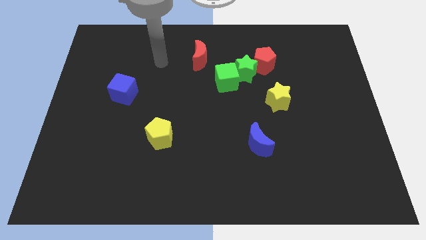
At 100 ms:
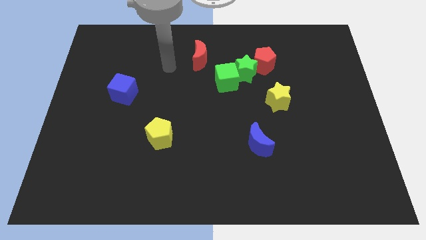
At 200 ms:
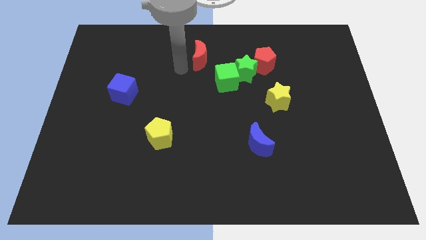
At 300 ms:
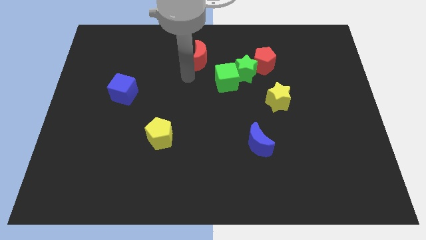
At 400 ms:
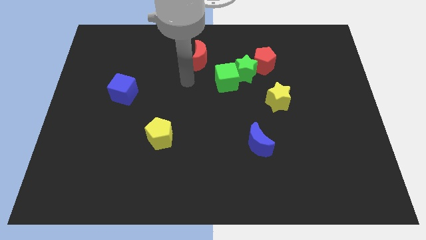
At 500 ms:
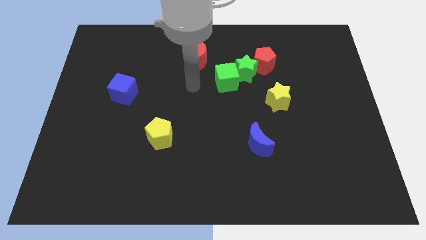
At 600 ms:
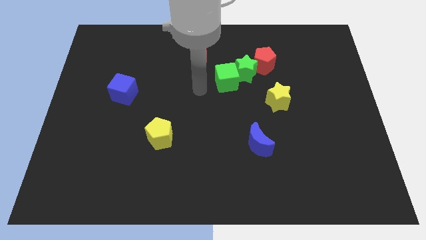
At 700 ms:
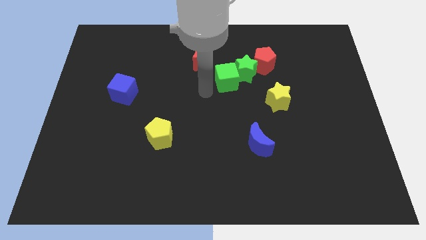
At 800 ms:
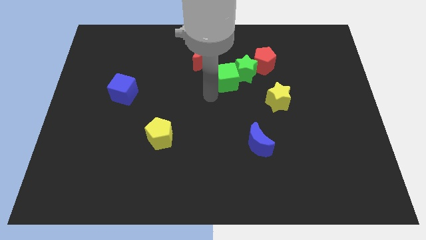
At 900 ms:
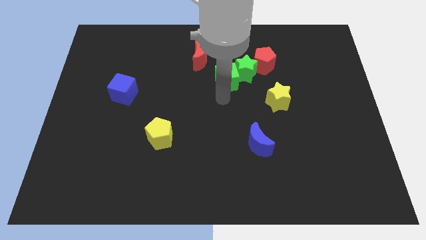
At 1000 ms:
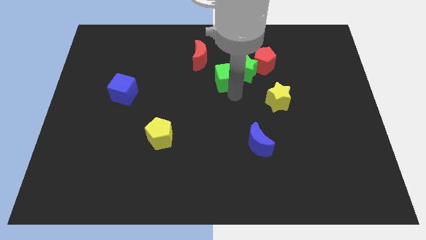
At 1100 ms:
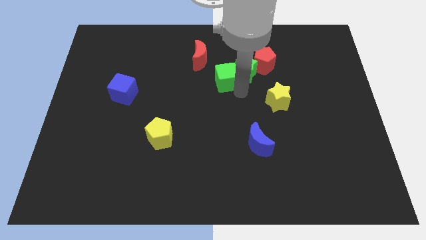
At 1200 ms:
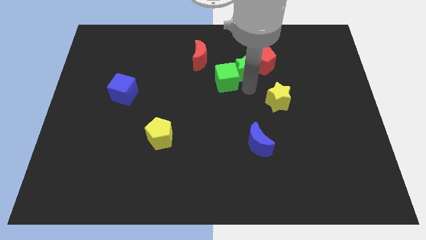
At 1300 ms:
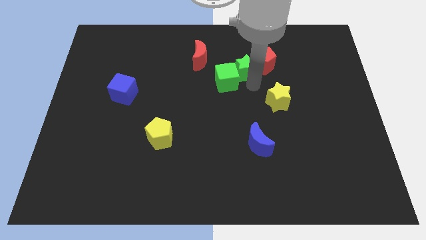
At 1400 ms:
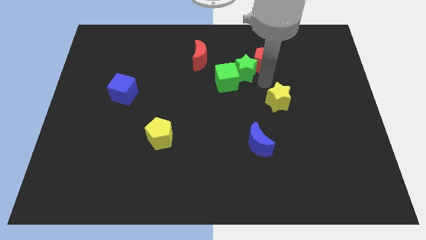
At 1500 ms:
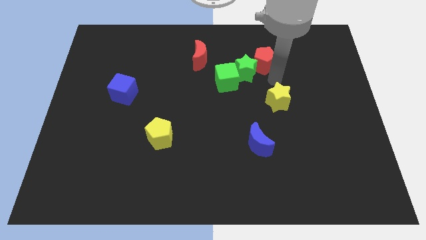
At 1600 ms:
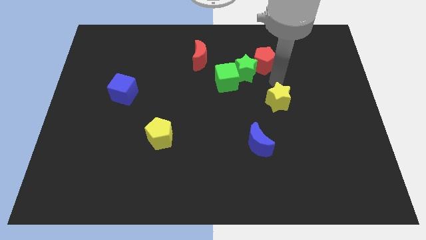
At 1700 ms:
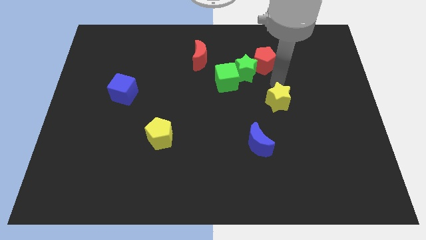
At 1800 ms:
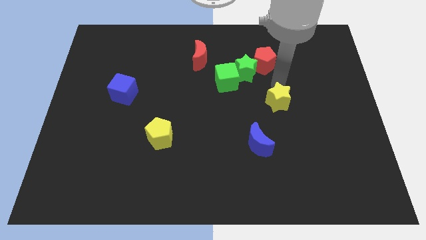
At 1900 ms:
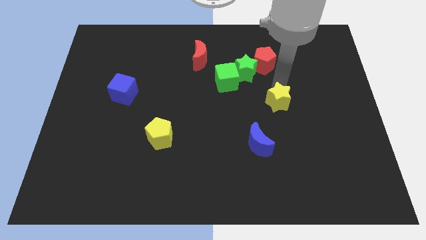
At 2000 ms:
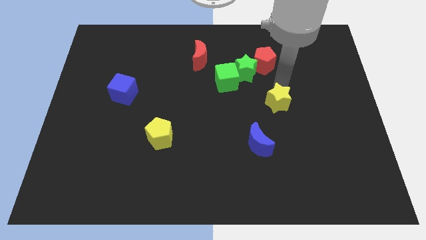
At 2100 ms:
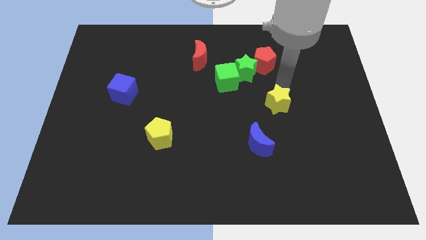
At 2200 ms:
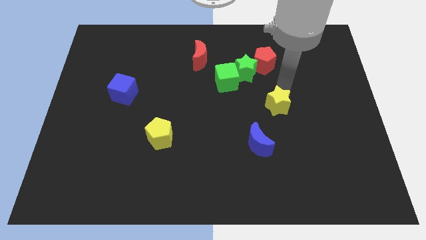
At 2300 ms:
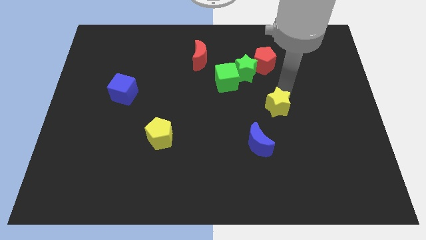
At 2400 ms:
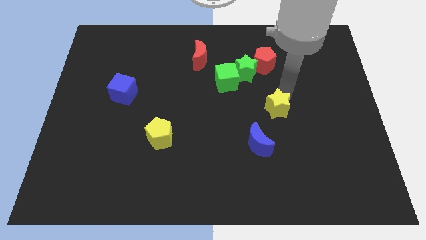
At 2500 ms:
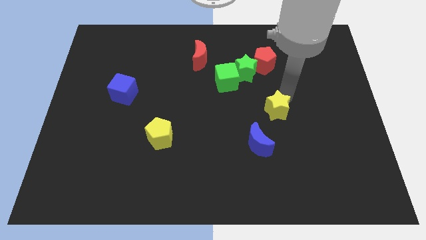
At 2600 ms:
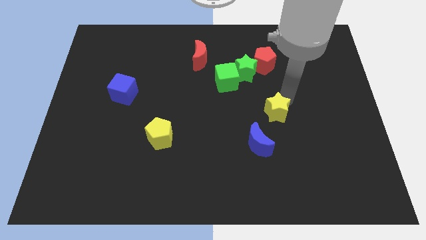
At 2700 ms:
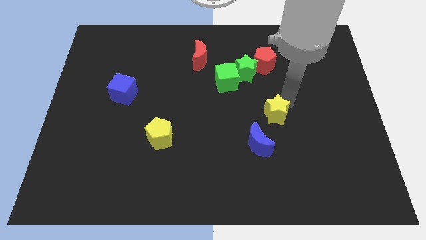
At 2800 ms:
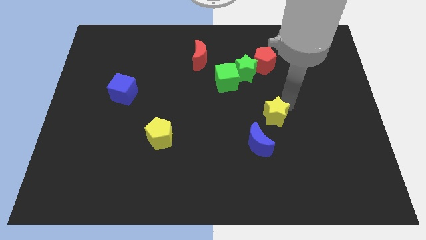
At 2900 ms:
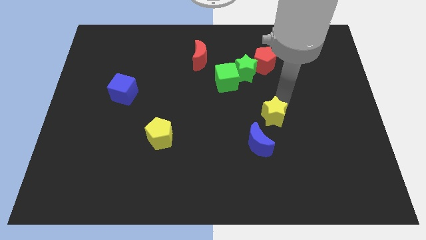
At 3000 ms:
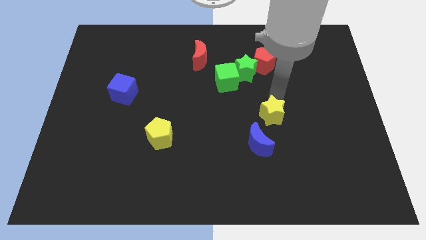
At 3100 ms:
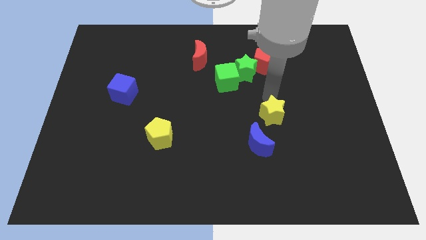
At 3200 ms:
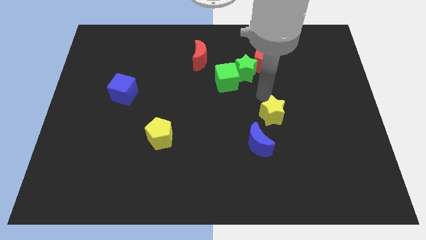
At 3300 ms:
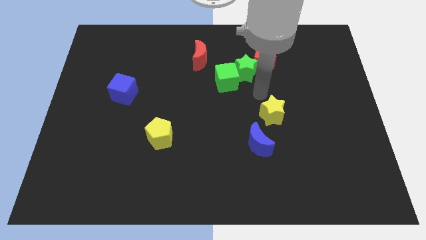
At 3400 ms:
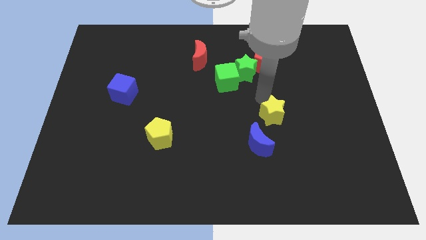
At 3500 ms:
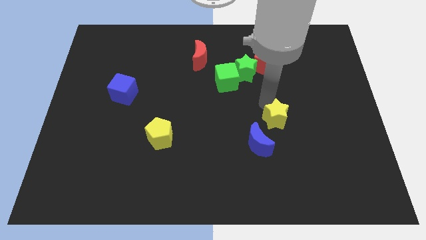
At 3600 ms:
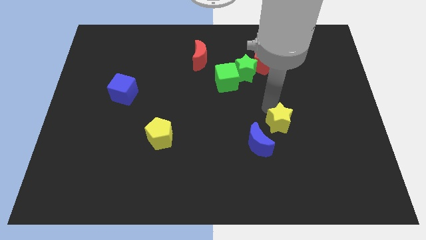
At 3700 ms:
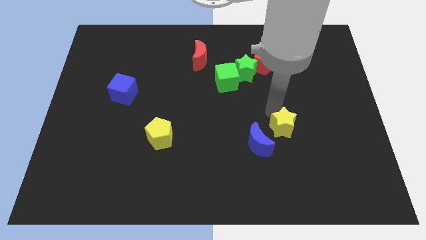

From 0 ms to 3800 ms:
move the yellow star a bit down

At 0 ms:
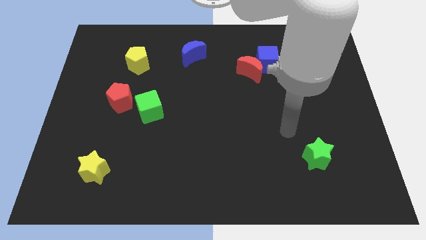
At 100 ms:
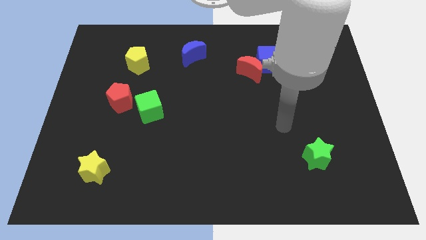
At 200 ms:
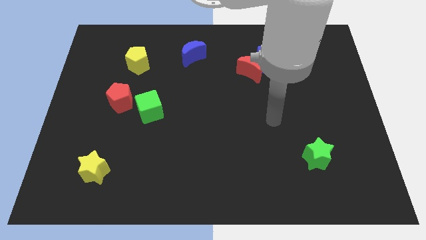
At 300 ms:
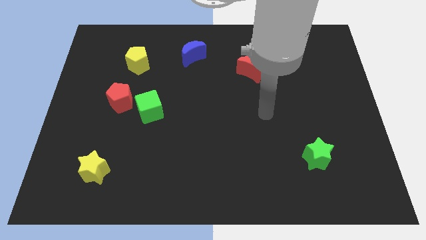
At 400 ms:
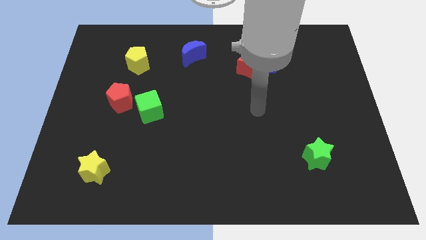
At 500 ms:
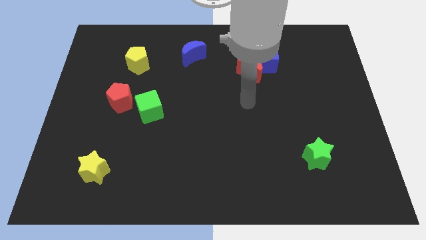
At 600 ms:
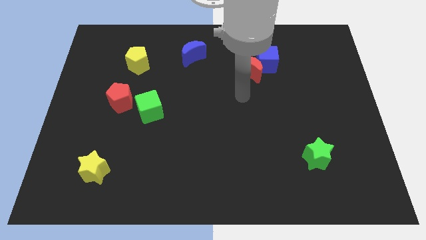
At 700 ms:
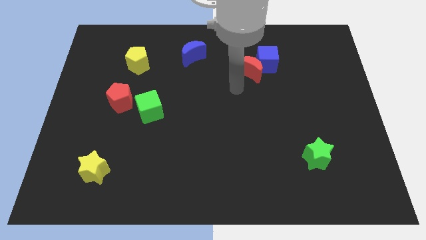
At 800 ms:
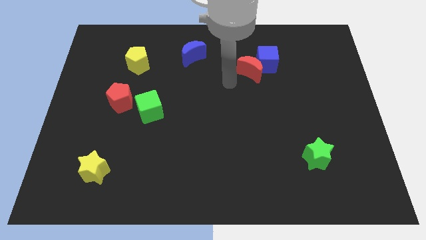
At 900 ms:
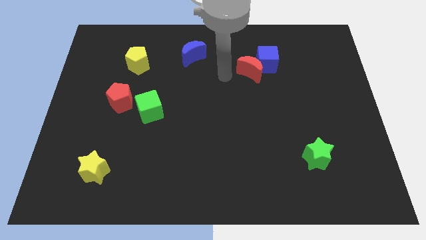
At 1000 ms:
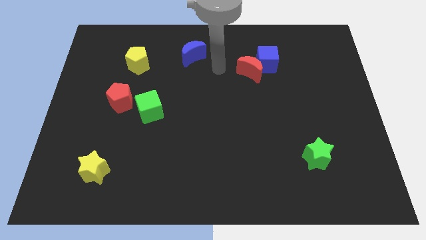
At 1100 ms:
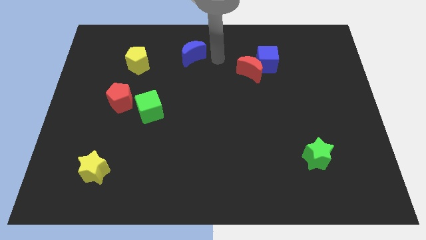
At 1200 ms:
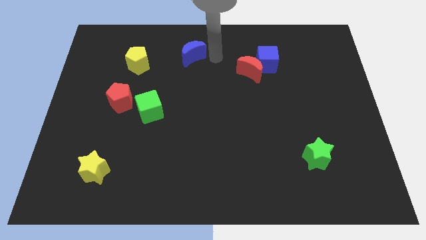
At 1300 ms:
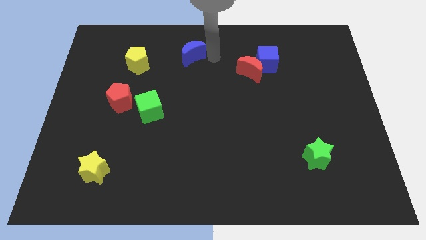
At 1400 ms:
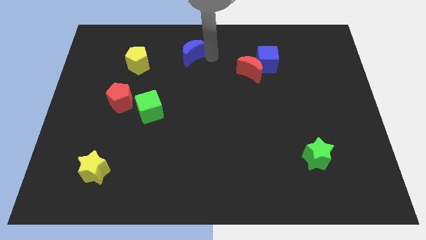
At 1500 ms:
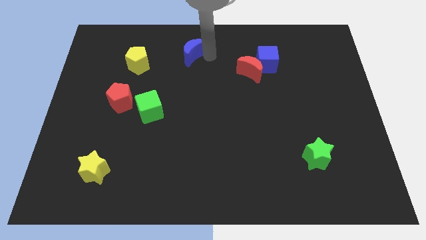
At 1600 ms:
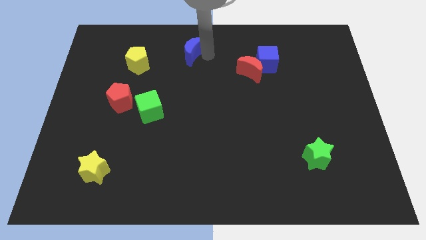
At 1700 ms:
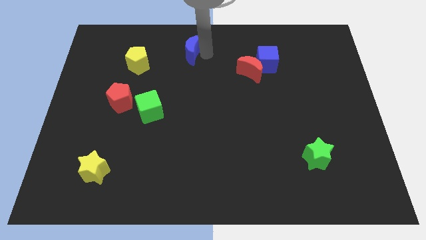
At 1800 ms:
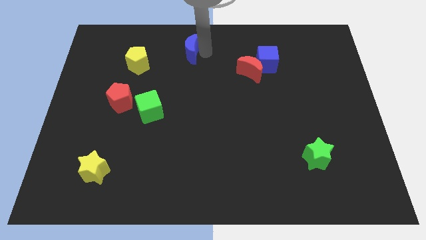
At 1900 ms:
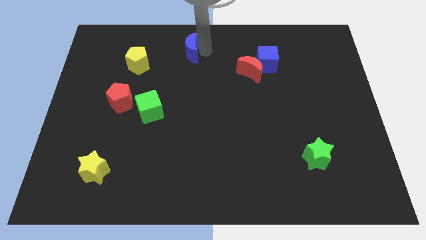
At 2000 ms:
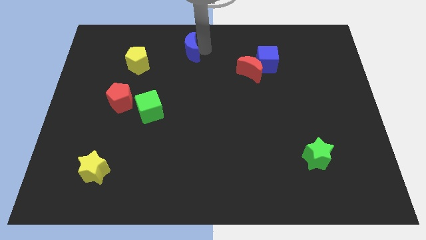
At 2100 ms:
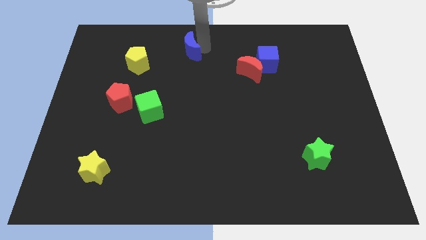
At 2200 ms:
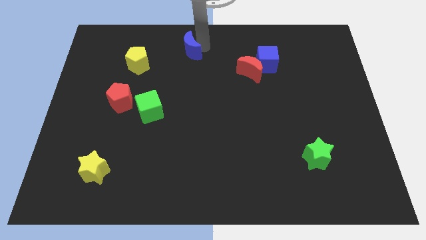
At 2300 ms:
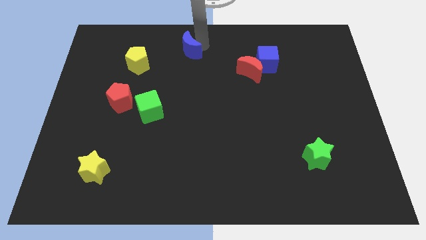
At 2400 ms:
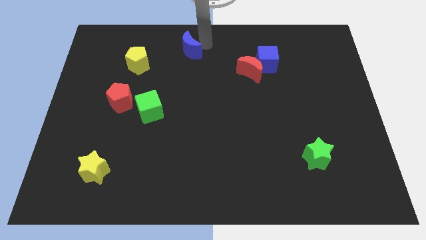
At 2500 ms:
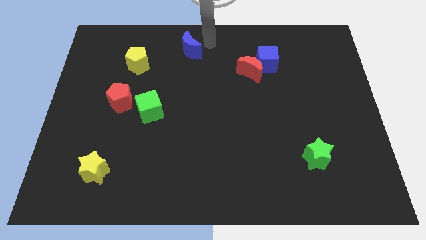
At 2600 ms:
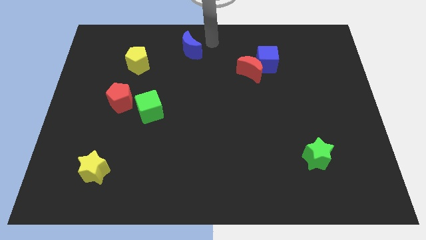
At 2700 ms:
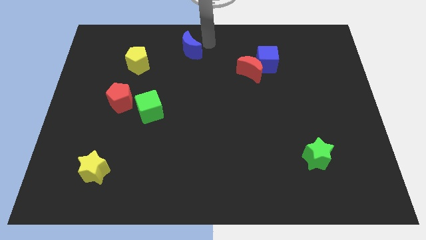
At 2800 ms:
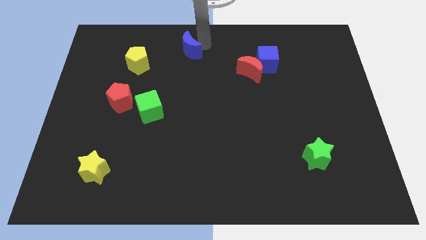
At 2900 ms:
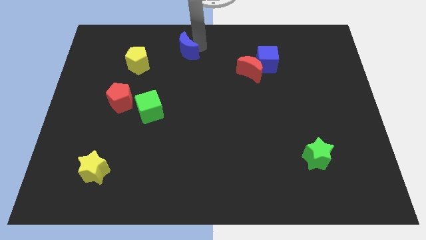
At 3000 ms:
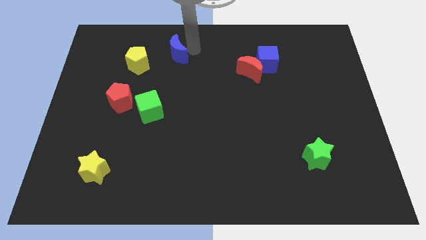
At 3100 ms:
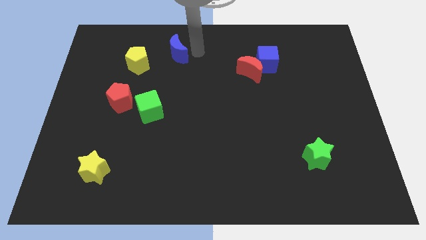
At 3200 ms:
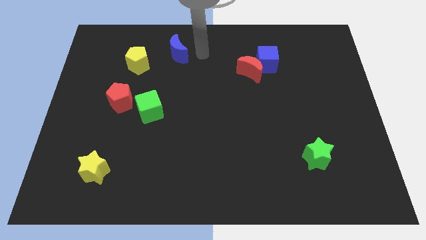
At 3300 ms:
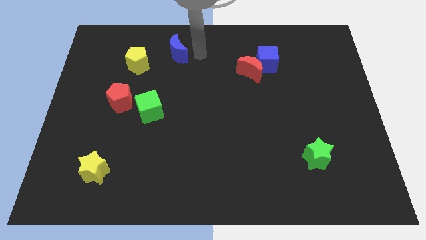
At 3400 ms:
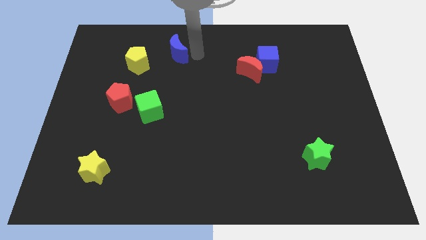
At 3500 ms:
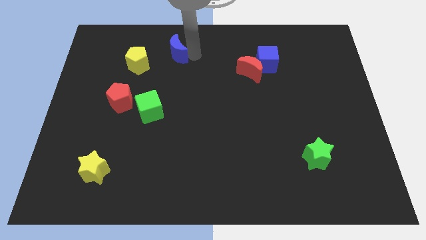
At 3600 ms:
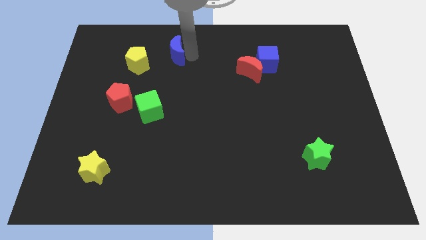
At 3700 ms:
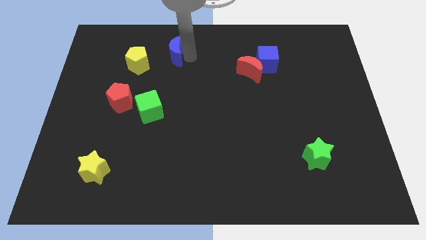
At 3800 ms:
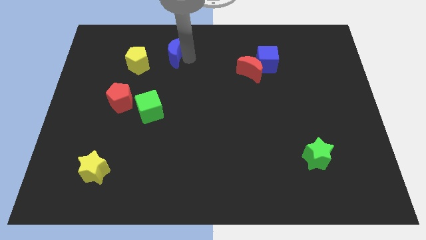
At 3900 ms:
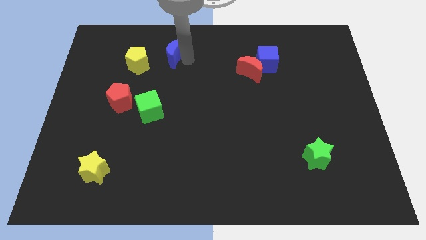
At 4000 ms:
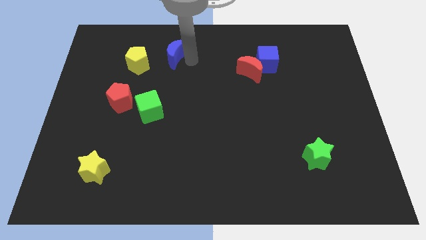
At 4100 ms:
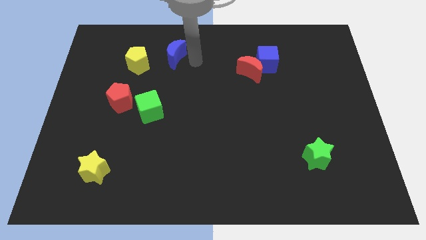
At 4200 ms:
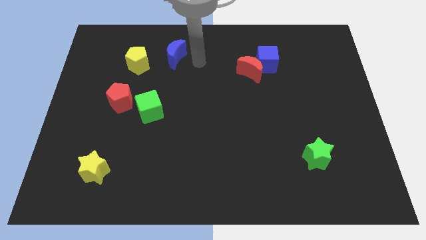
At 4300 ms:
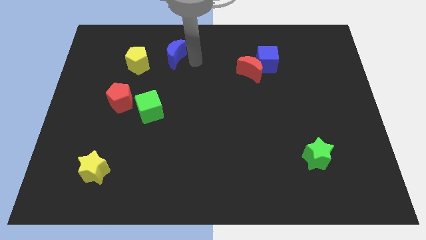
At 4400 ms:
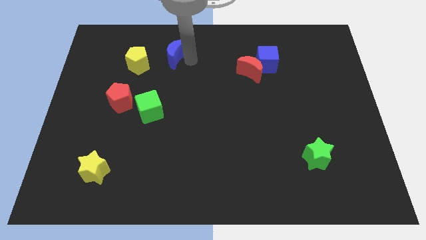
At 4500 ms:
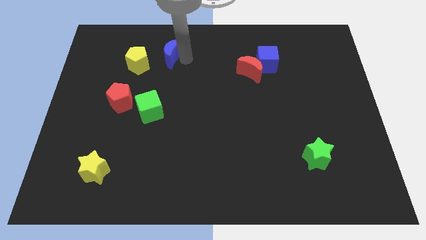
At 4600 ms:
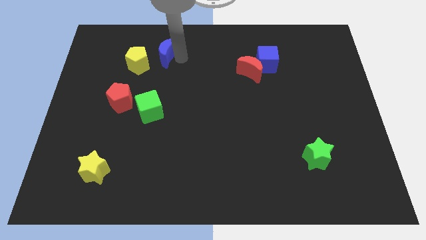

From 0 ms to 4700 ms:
move the blue moon a bit to the left
